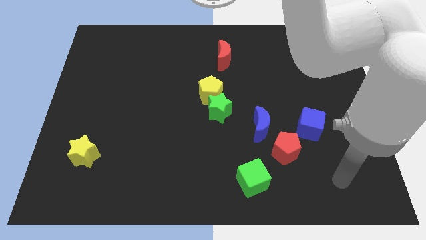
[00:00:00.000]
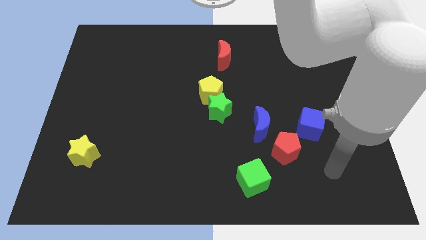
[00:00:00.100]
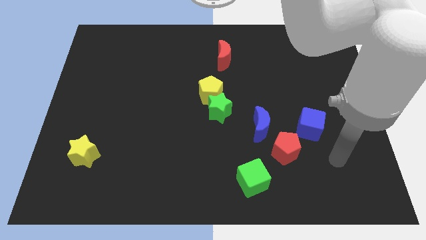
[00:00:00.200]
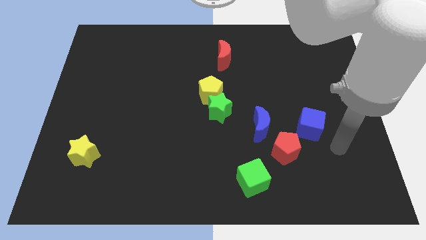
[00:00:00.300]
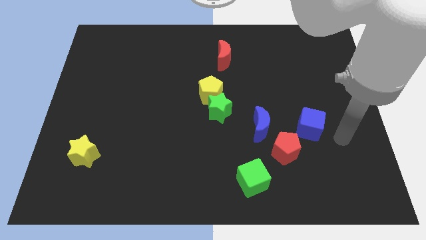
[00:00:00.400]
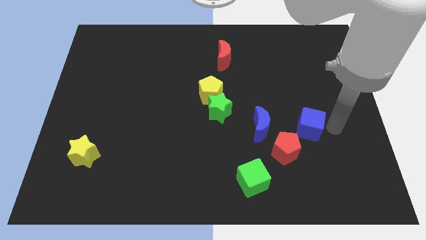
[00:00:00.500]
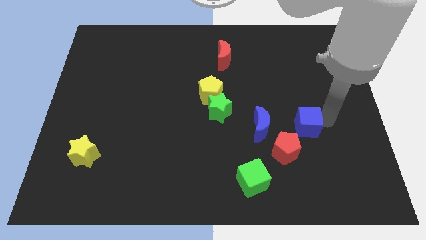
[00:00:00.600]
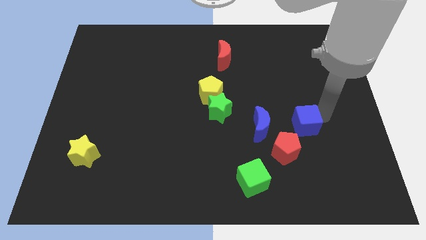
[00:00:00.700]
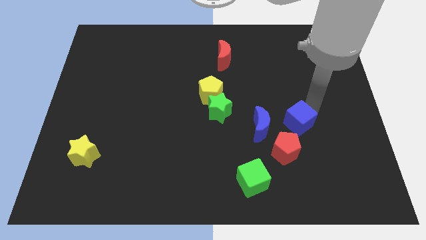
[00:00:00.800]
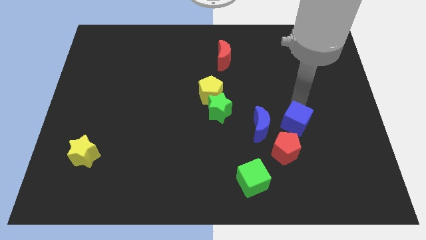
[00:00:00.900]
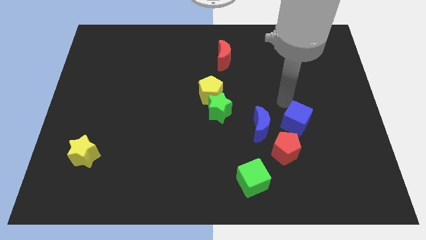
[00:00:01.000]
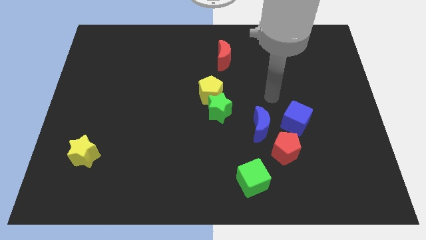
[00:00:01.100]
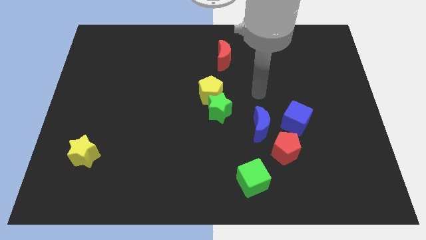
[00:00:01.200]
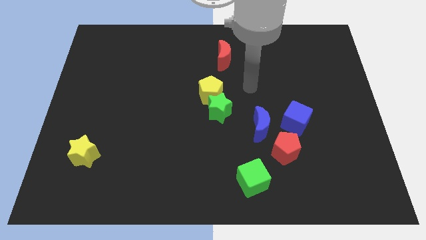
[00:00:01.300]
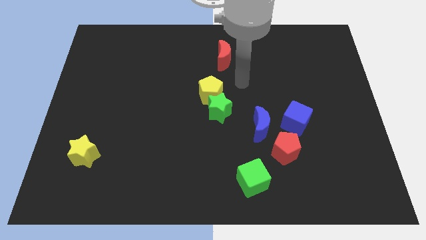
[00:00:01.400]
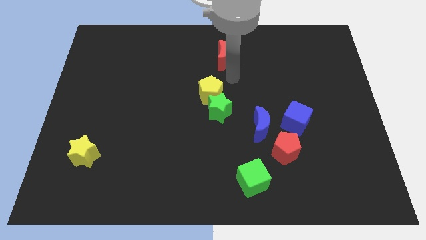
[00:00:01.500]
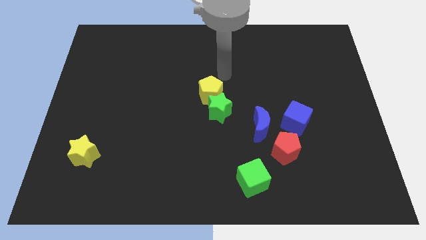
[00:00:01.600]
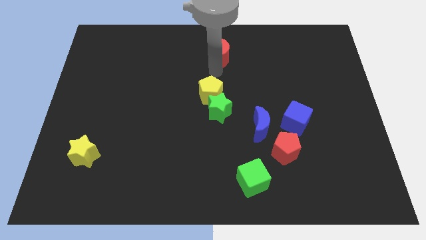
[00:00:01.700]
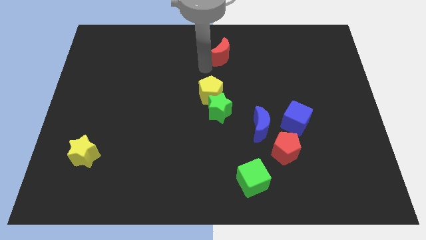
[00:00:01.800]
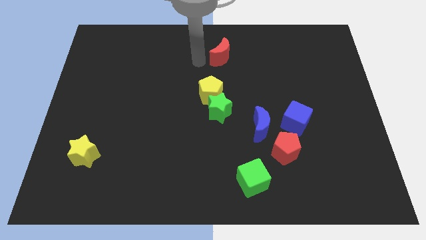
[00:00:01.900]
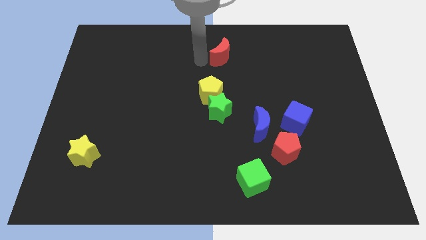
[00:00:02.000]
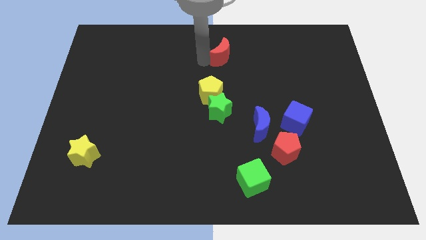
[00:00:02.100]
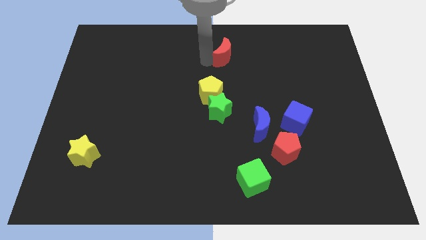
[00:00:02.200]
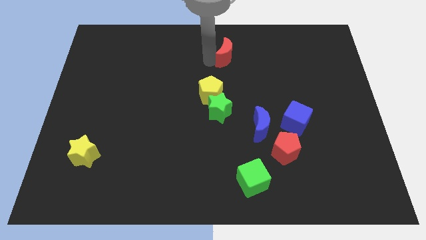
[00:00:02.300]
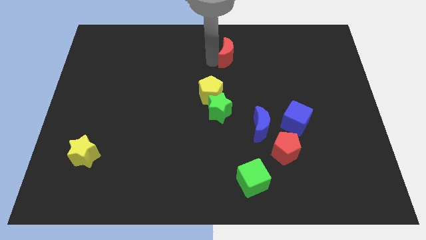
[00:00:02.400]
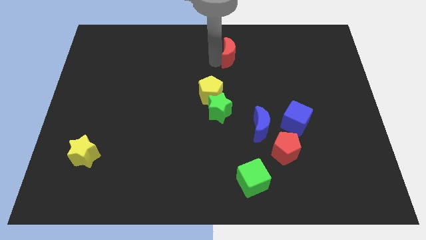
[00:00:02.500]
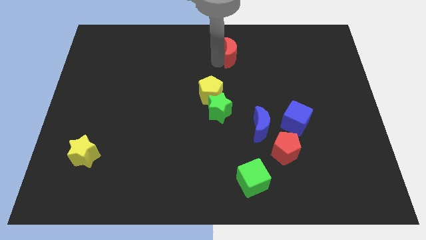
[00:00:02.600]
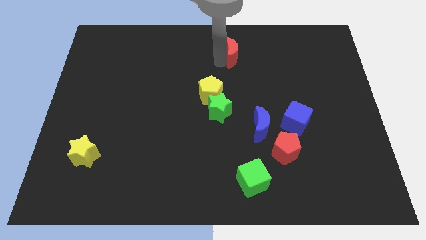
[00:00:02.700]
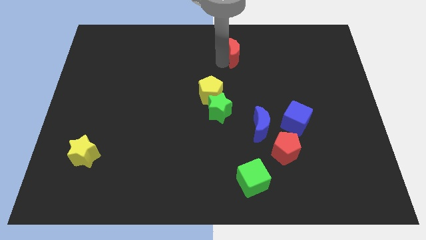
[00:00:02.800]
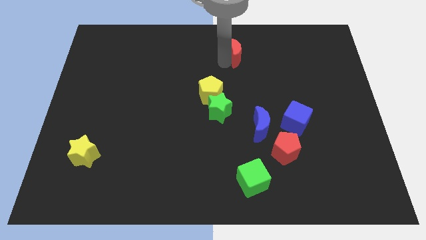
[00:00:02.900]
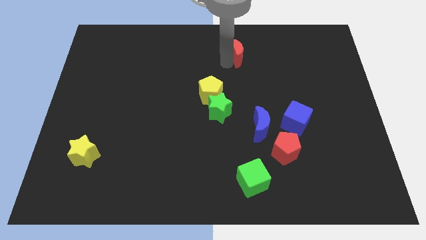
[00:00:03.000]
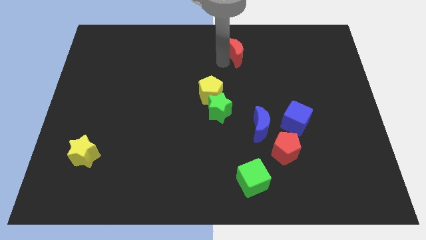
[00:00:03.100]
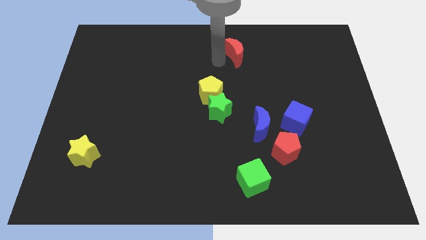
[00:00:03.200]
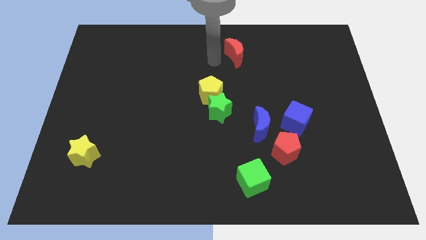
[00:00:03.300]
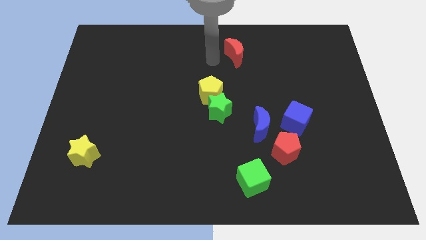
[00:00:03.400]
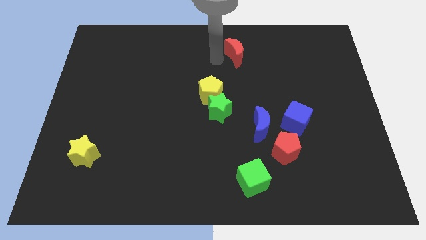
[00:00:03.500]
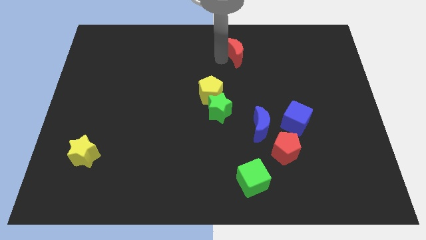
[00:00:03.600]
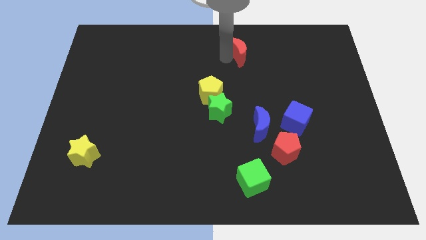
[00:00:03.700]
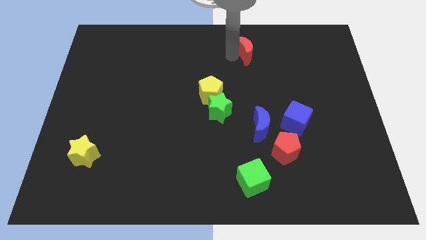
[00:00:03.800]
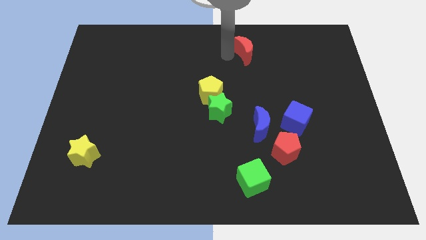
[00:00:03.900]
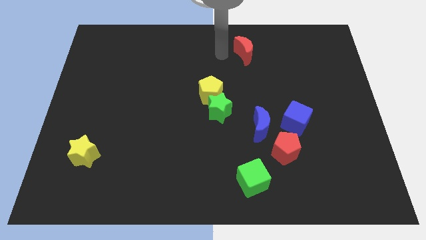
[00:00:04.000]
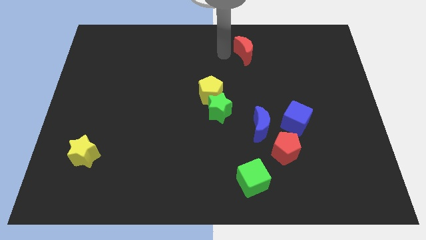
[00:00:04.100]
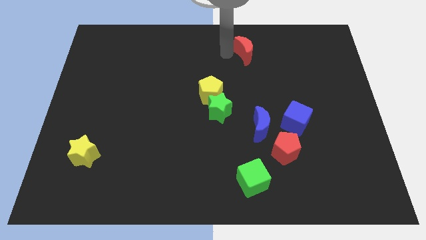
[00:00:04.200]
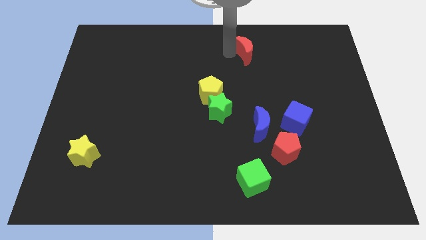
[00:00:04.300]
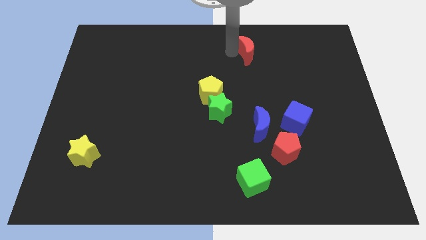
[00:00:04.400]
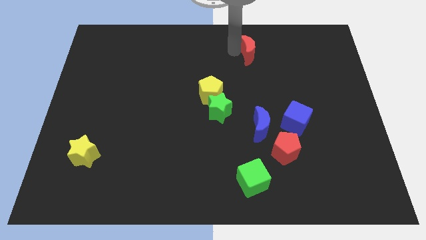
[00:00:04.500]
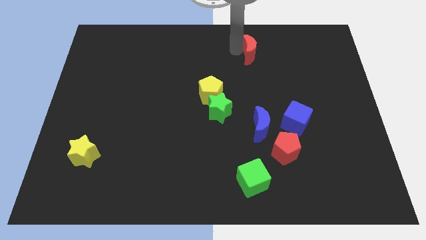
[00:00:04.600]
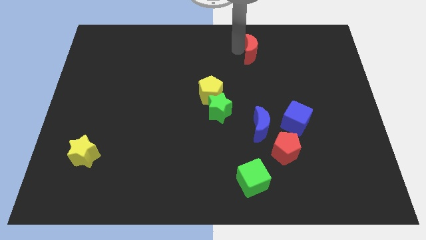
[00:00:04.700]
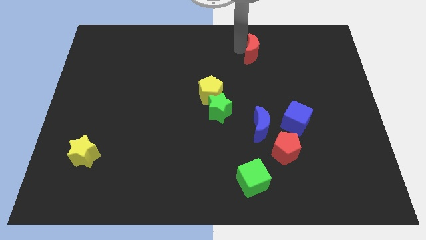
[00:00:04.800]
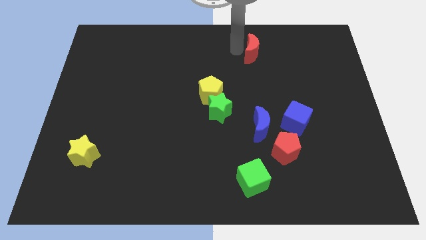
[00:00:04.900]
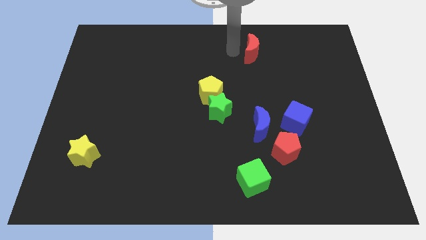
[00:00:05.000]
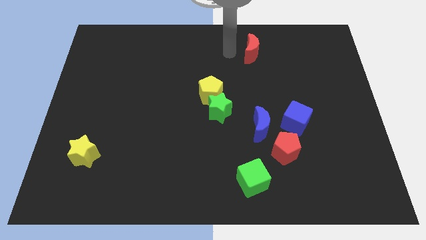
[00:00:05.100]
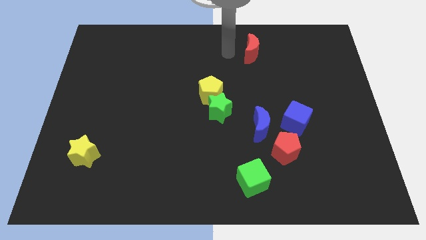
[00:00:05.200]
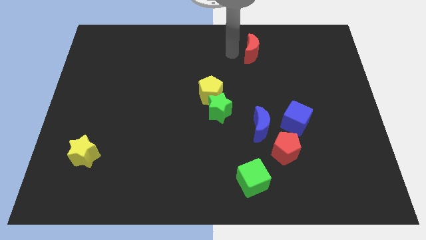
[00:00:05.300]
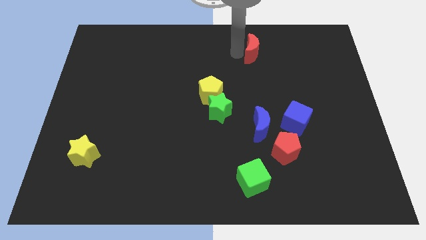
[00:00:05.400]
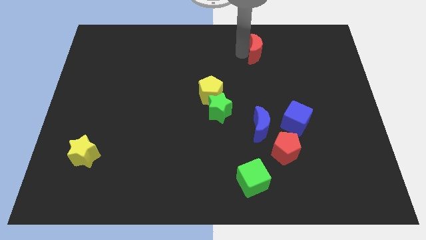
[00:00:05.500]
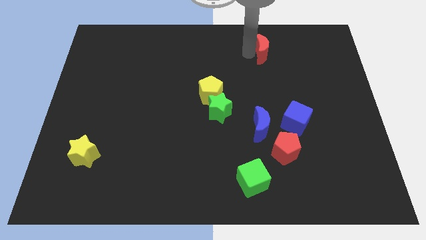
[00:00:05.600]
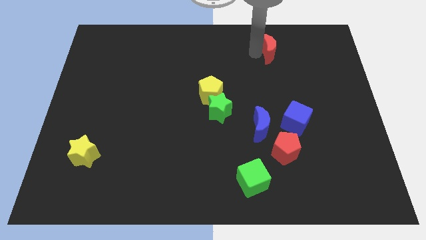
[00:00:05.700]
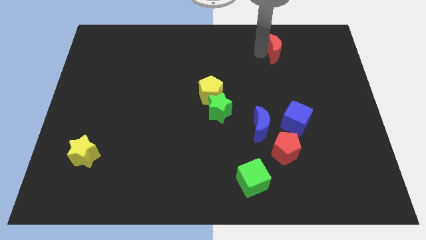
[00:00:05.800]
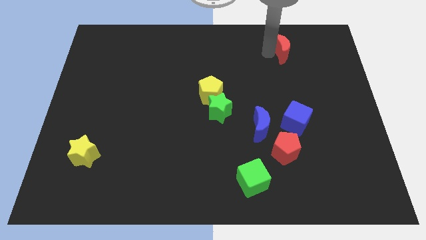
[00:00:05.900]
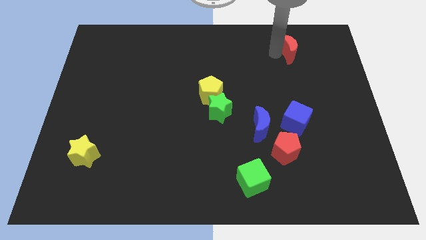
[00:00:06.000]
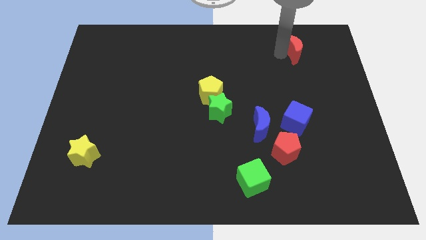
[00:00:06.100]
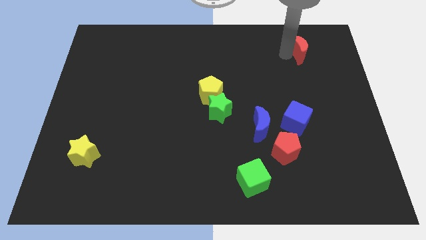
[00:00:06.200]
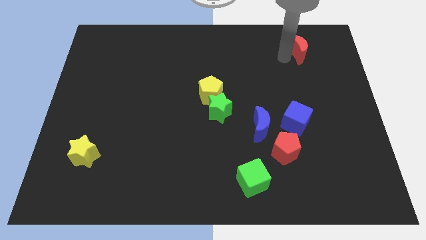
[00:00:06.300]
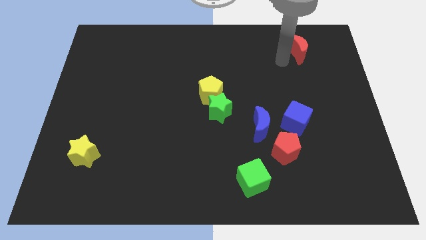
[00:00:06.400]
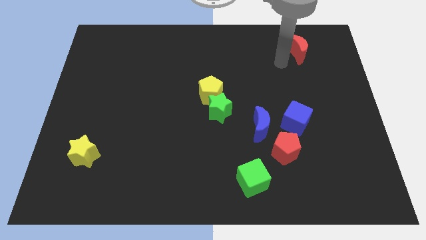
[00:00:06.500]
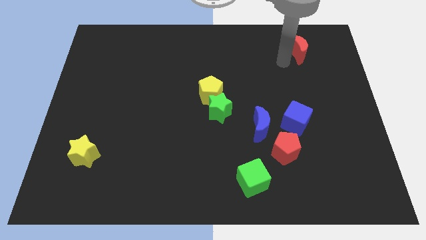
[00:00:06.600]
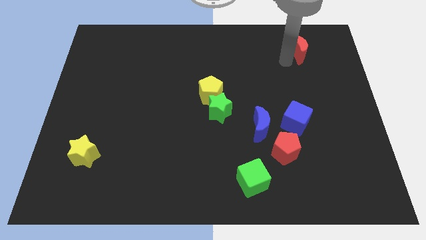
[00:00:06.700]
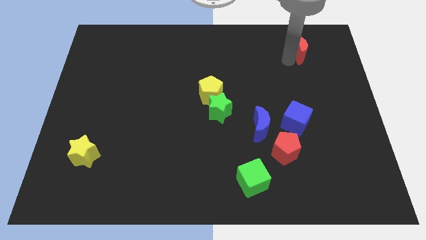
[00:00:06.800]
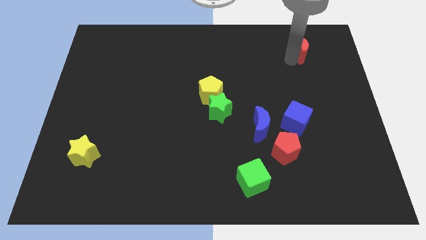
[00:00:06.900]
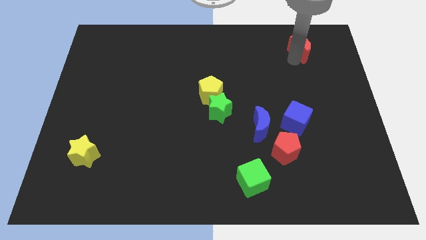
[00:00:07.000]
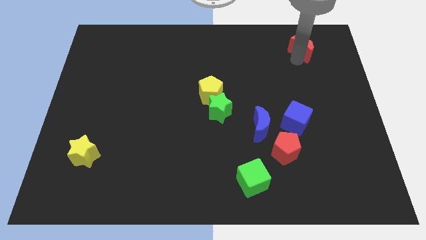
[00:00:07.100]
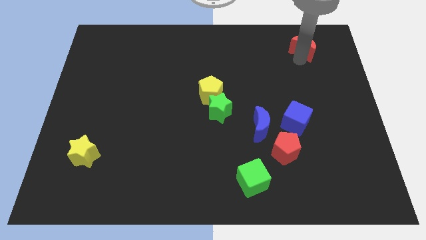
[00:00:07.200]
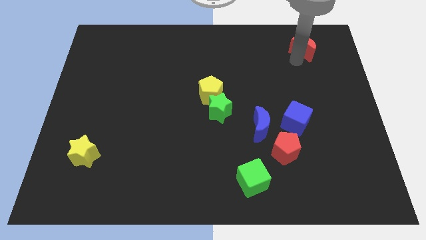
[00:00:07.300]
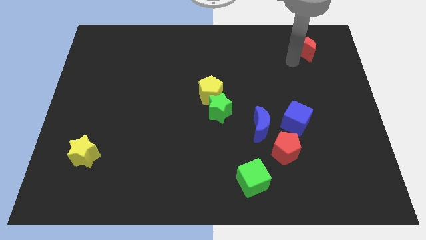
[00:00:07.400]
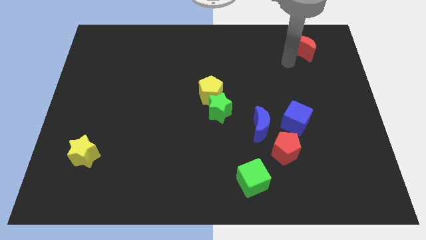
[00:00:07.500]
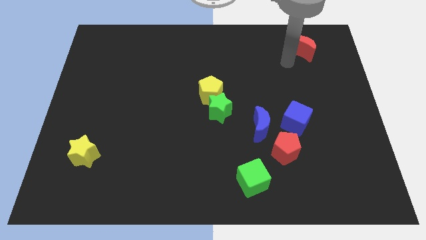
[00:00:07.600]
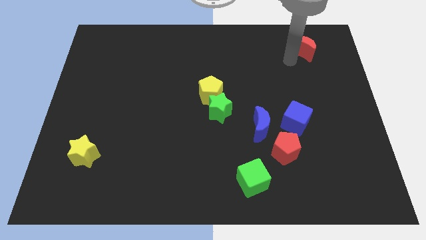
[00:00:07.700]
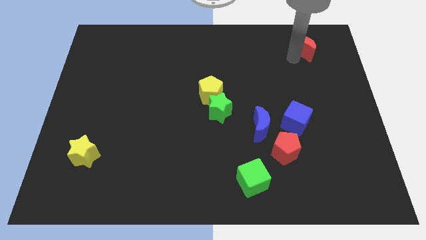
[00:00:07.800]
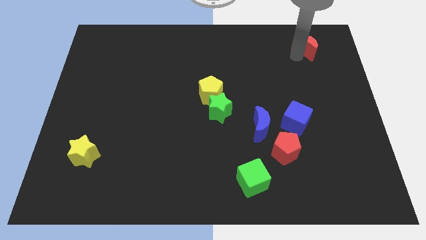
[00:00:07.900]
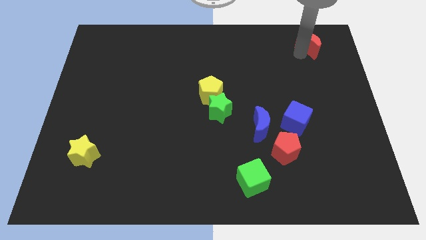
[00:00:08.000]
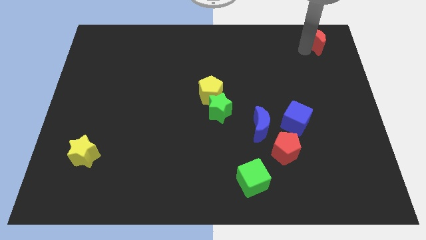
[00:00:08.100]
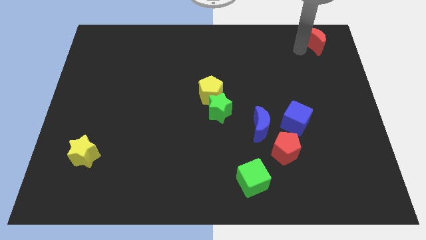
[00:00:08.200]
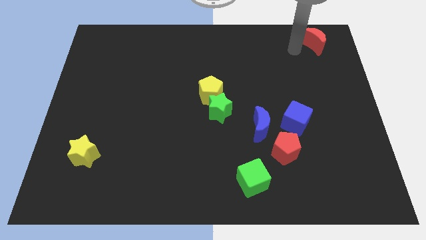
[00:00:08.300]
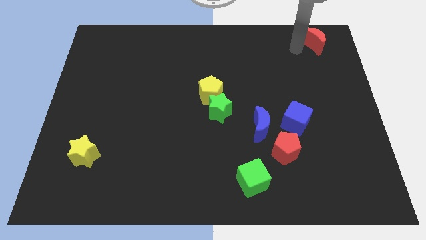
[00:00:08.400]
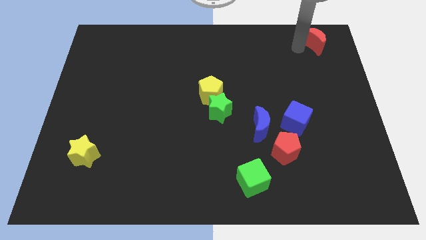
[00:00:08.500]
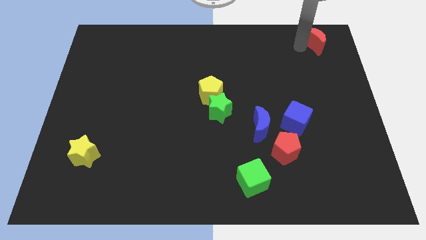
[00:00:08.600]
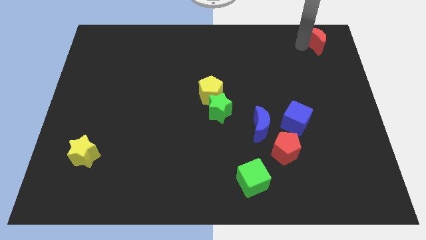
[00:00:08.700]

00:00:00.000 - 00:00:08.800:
move the red moon to the top right
